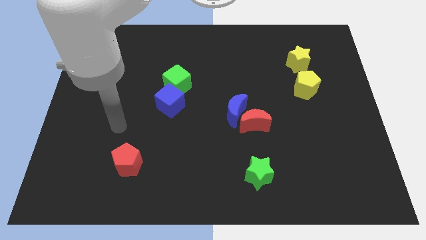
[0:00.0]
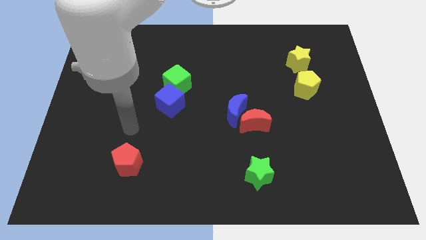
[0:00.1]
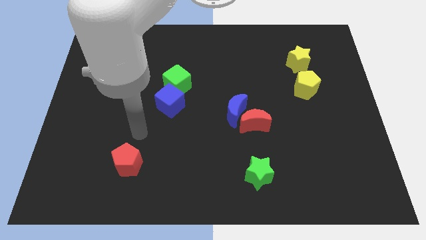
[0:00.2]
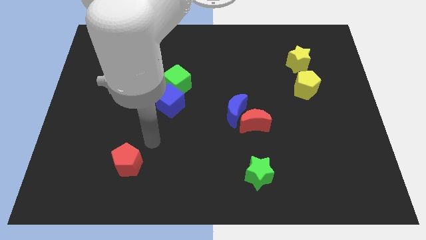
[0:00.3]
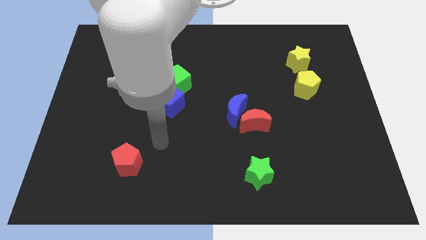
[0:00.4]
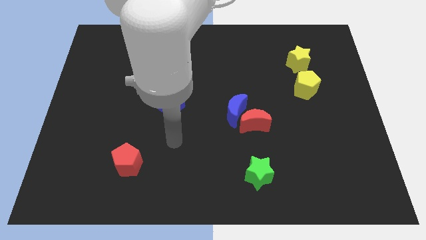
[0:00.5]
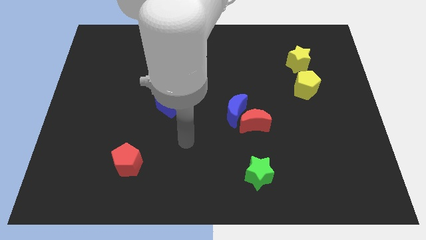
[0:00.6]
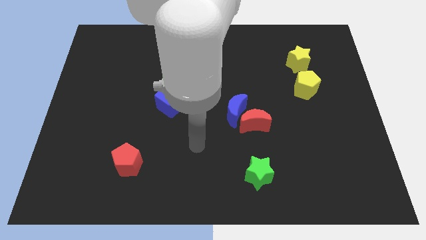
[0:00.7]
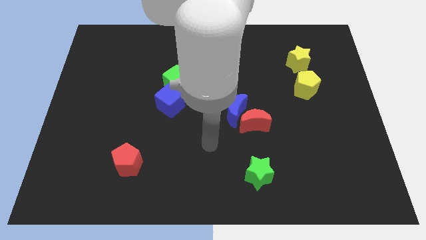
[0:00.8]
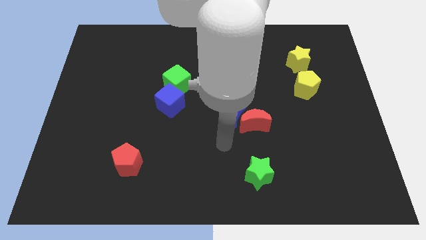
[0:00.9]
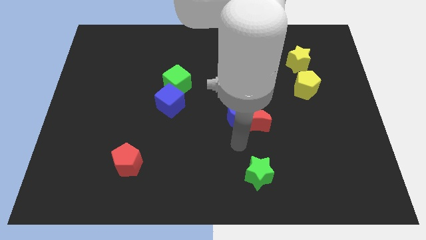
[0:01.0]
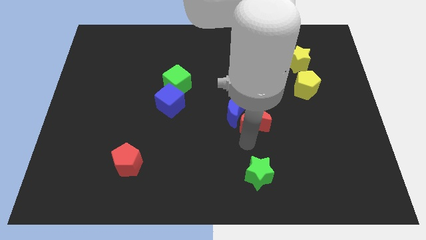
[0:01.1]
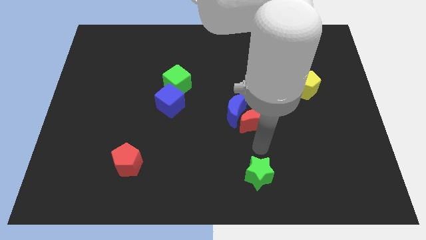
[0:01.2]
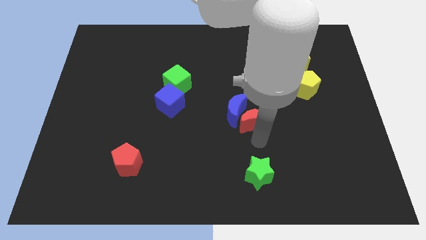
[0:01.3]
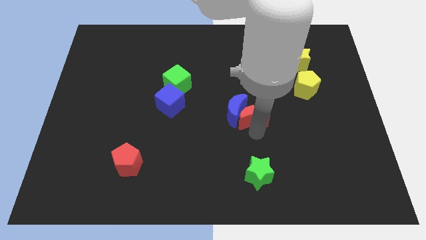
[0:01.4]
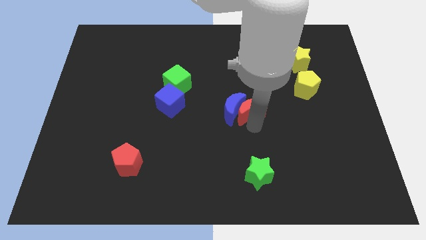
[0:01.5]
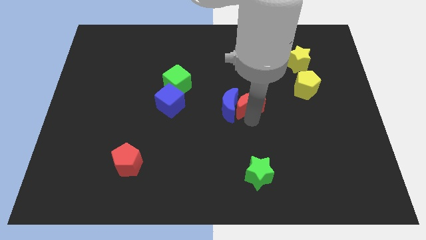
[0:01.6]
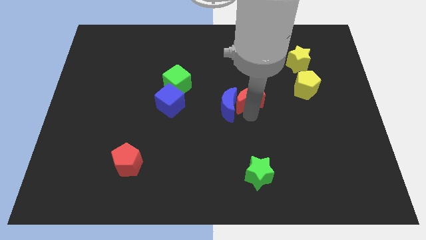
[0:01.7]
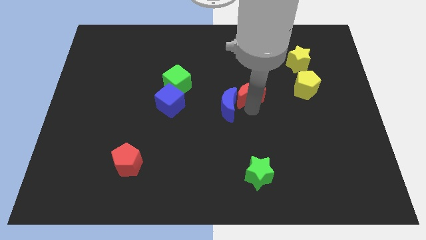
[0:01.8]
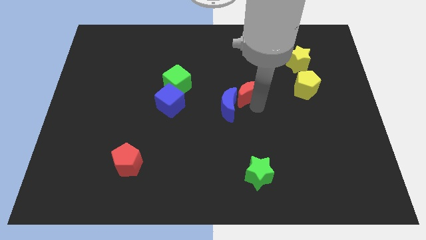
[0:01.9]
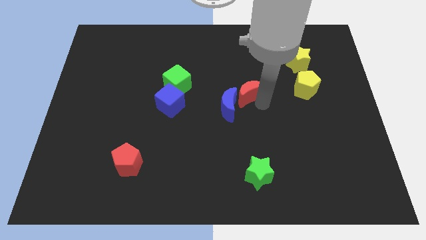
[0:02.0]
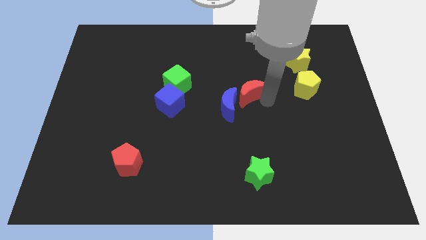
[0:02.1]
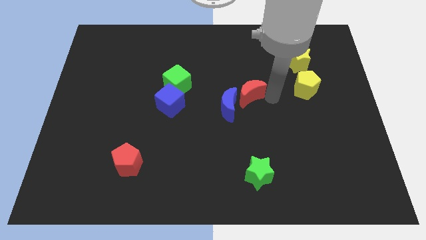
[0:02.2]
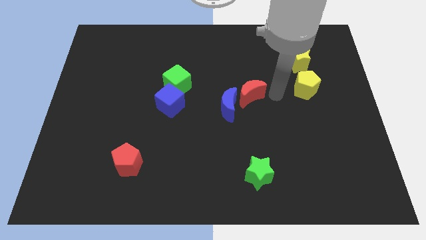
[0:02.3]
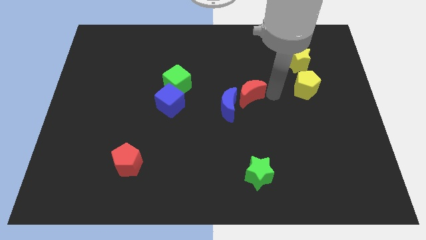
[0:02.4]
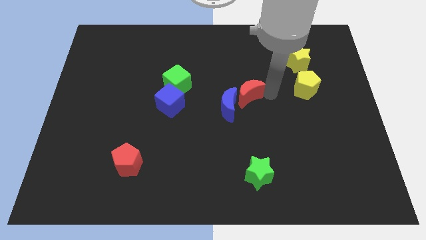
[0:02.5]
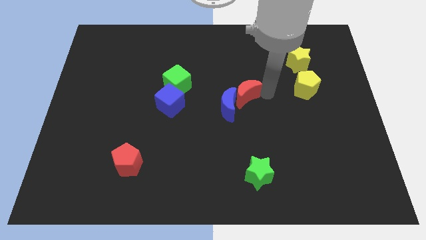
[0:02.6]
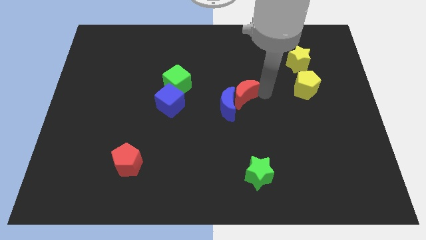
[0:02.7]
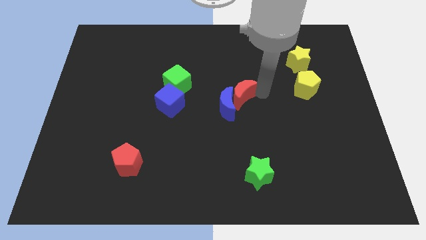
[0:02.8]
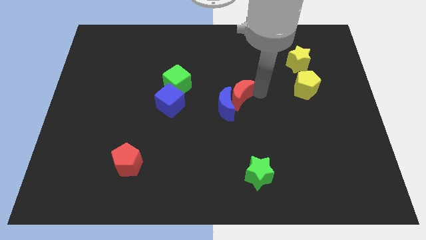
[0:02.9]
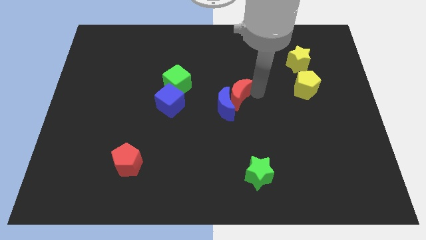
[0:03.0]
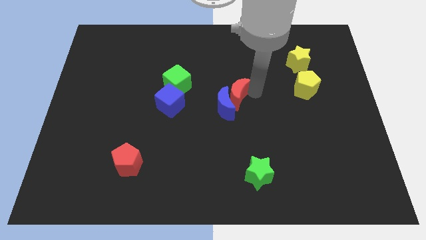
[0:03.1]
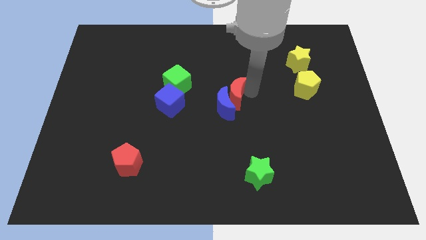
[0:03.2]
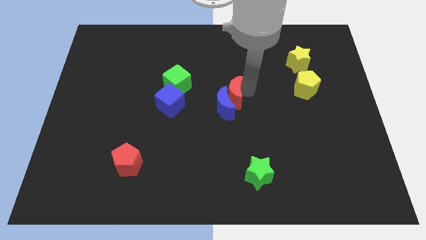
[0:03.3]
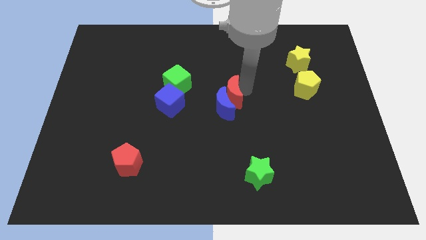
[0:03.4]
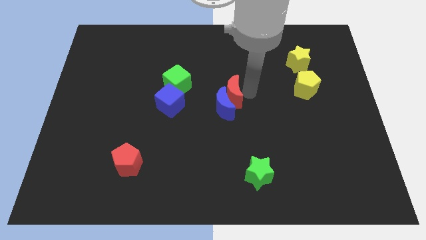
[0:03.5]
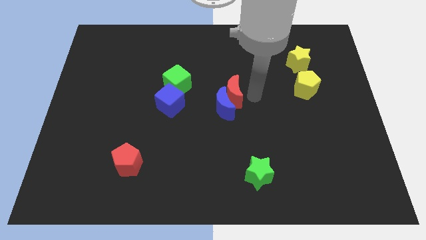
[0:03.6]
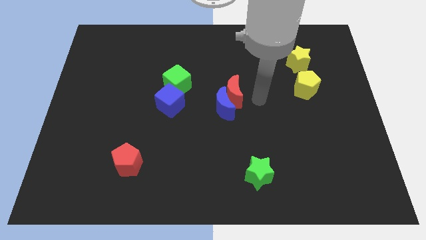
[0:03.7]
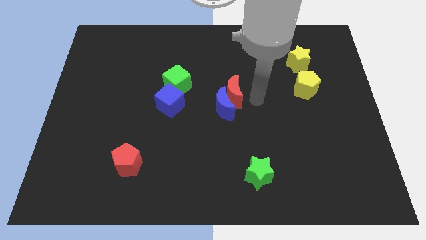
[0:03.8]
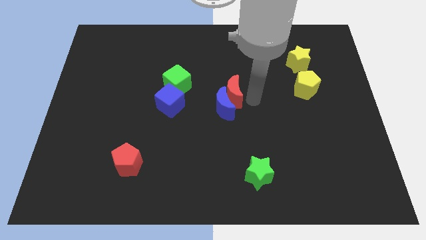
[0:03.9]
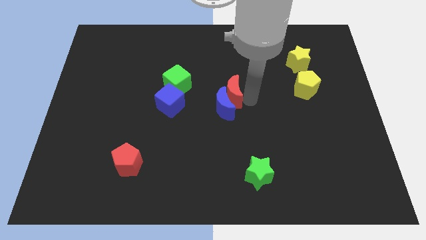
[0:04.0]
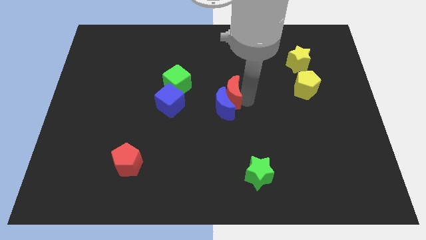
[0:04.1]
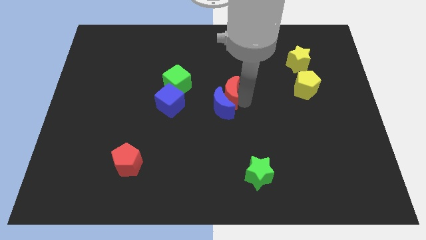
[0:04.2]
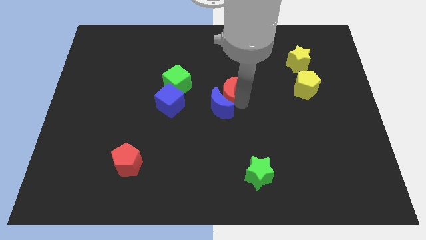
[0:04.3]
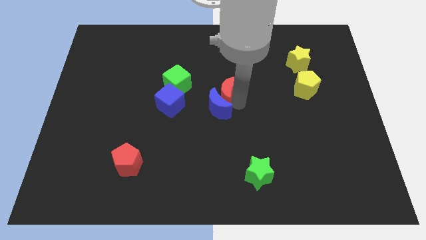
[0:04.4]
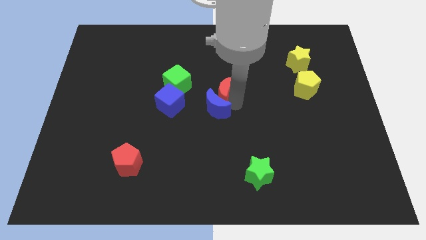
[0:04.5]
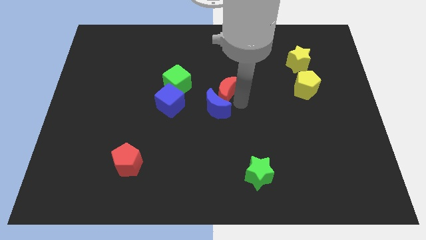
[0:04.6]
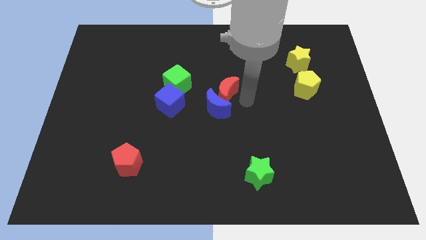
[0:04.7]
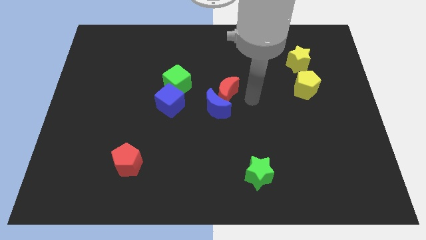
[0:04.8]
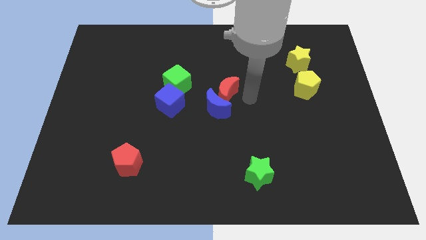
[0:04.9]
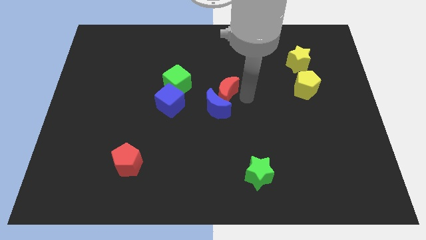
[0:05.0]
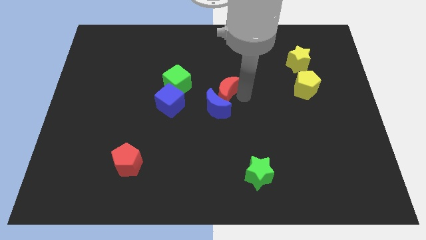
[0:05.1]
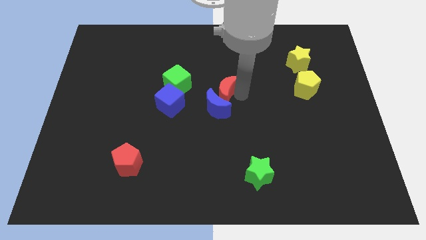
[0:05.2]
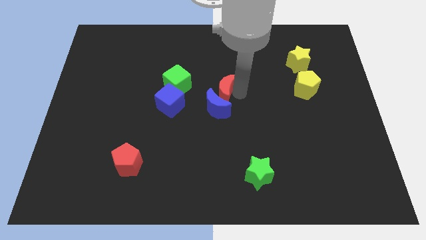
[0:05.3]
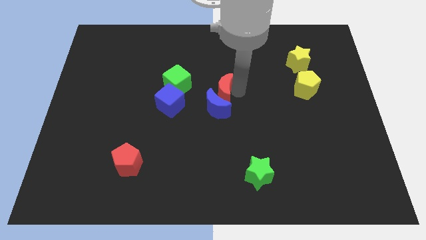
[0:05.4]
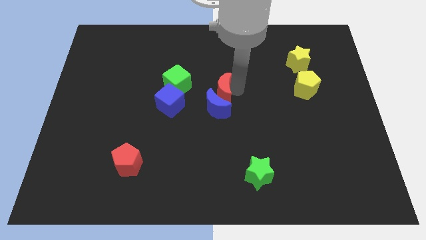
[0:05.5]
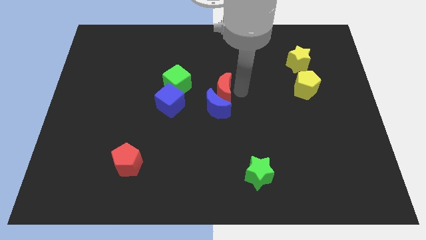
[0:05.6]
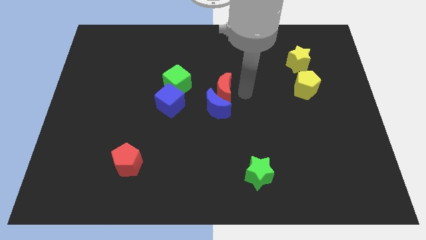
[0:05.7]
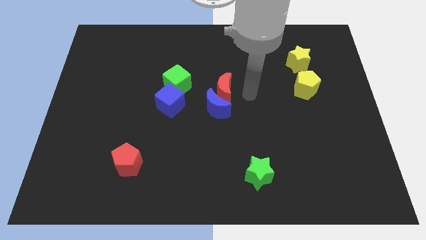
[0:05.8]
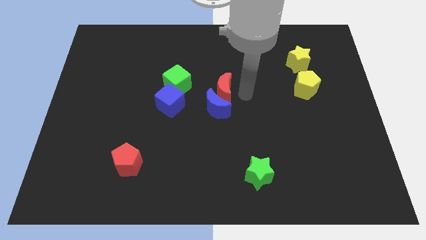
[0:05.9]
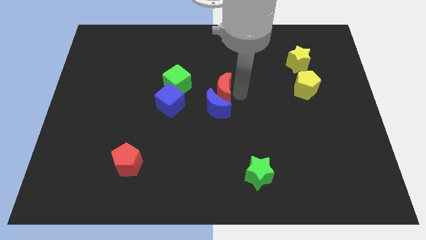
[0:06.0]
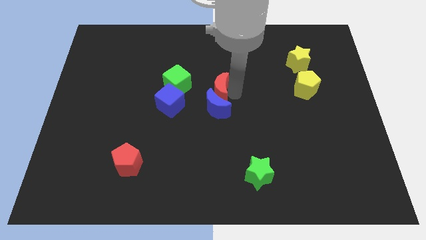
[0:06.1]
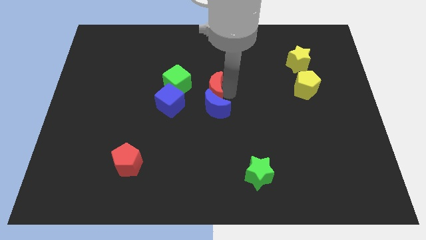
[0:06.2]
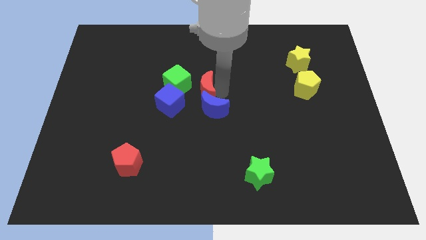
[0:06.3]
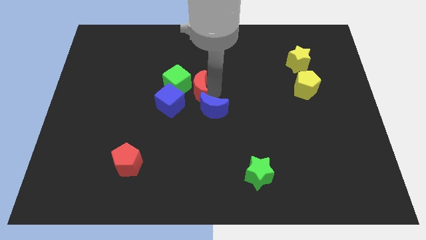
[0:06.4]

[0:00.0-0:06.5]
put the red moon close to the green cube

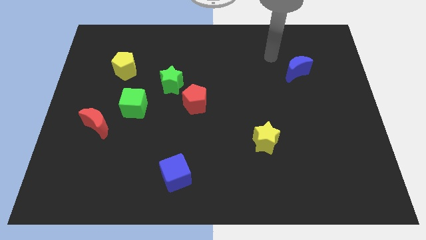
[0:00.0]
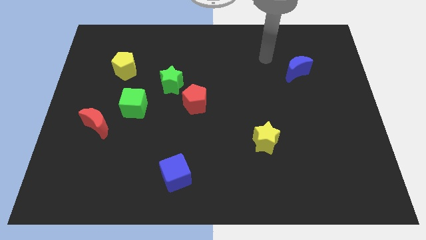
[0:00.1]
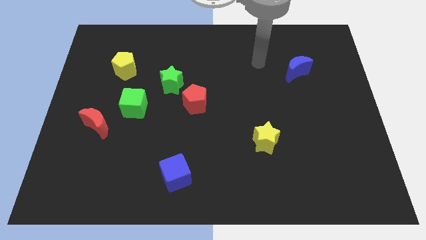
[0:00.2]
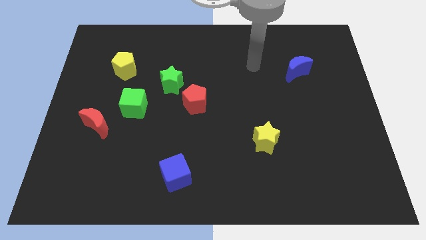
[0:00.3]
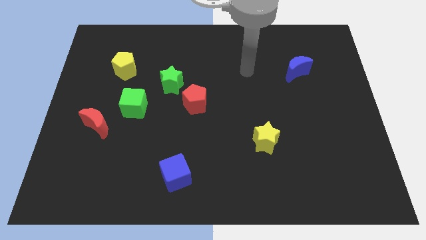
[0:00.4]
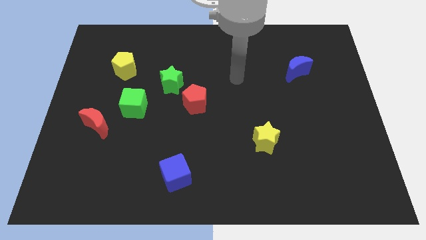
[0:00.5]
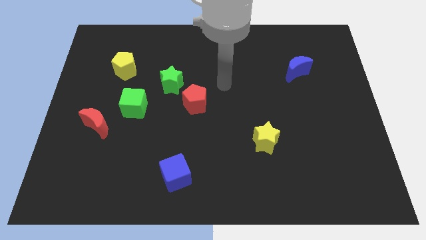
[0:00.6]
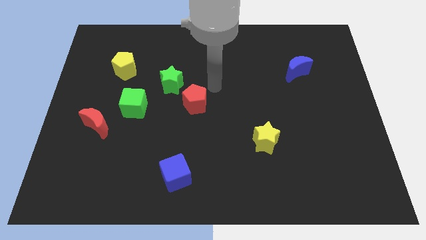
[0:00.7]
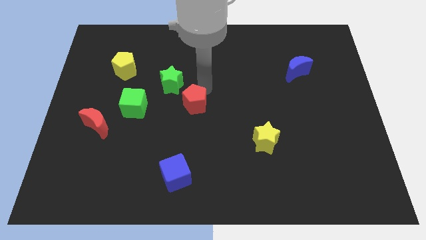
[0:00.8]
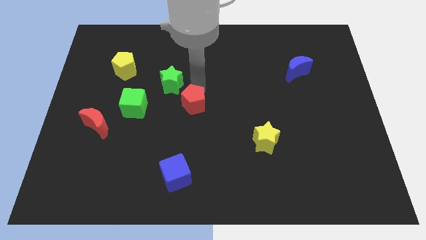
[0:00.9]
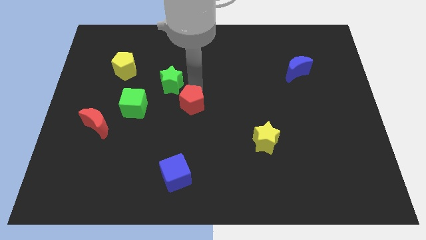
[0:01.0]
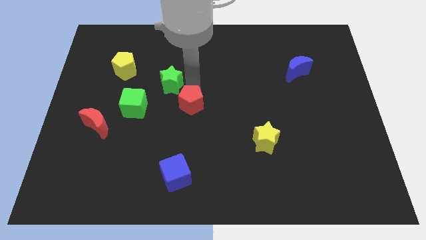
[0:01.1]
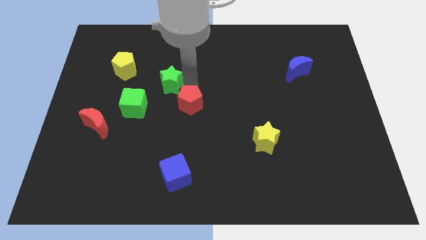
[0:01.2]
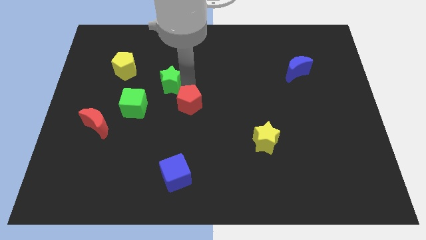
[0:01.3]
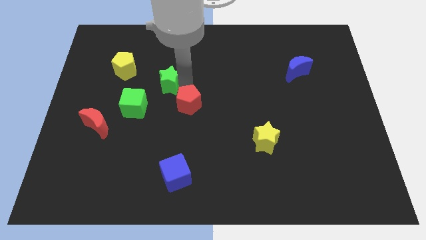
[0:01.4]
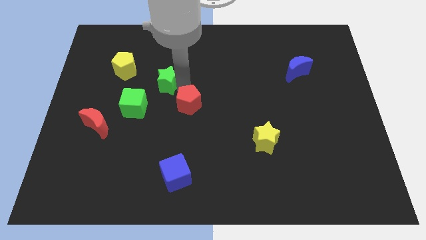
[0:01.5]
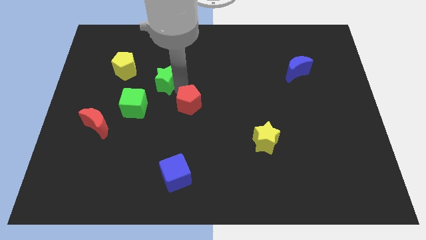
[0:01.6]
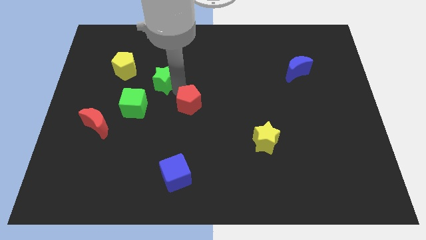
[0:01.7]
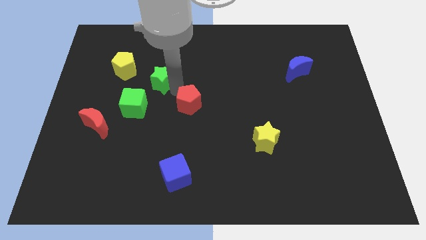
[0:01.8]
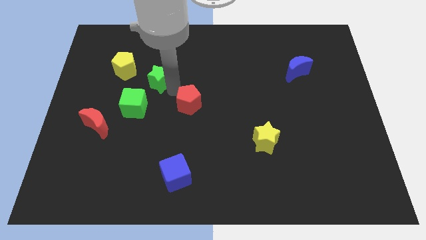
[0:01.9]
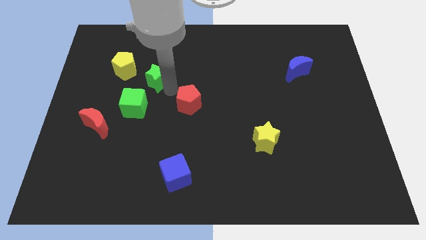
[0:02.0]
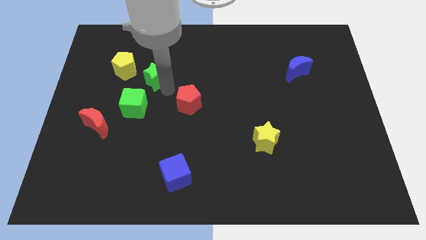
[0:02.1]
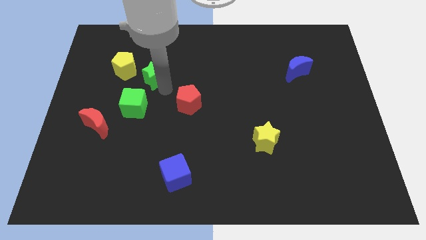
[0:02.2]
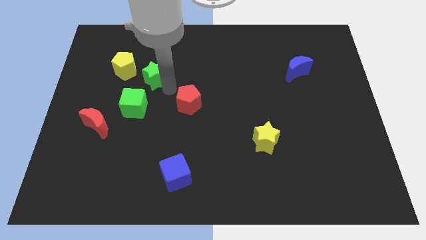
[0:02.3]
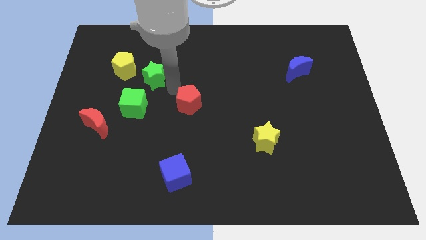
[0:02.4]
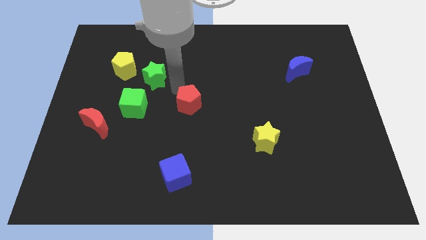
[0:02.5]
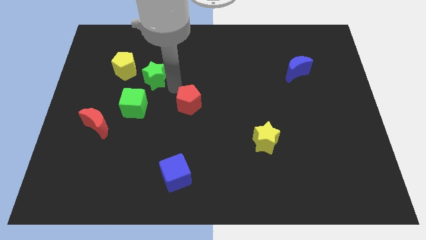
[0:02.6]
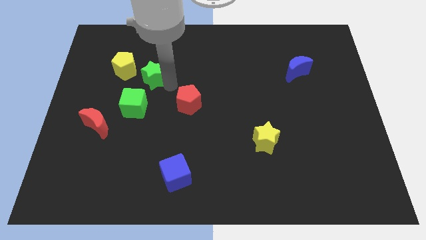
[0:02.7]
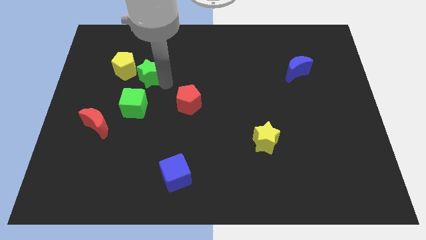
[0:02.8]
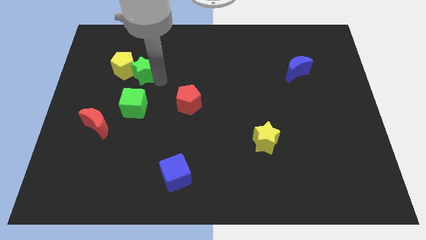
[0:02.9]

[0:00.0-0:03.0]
move the green star next to the yellow pentagon
